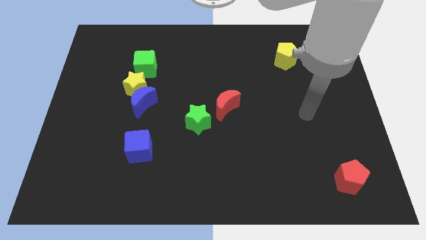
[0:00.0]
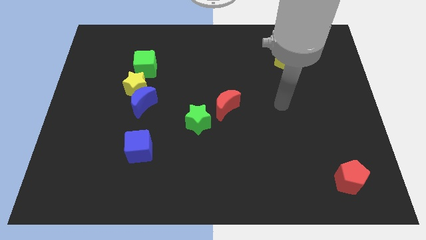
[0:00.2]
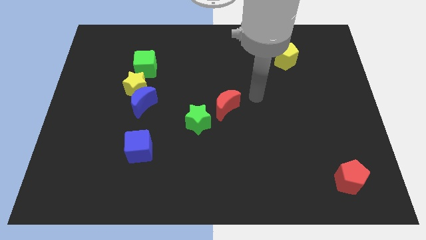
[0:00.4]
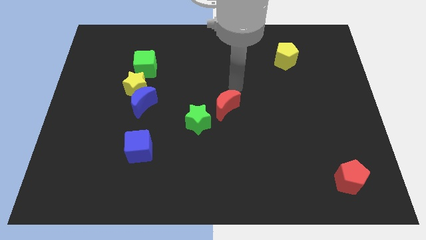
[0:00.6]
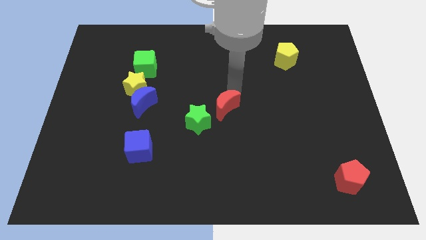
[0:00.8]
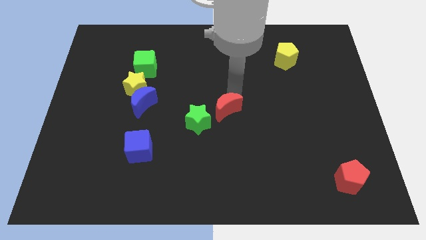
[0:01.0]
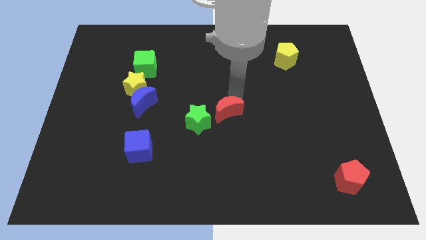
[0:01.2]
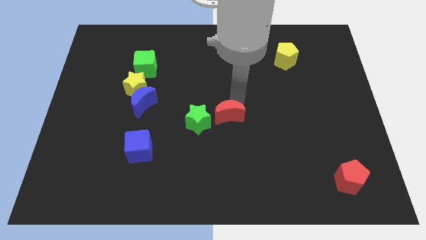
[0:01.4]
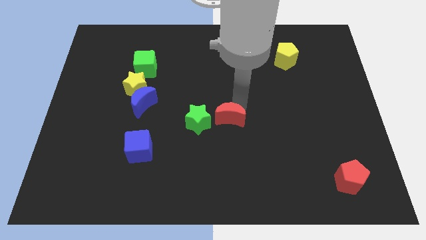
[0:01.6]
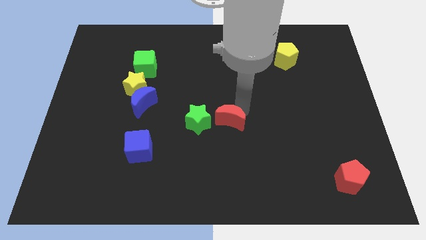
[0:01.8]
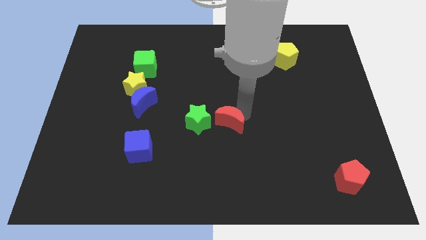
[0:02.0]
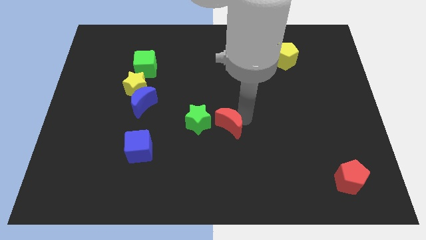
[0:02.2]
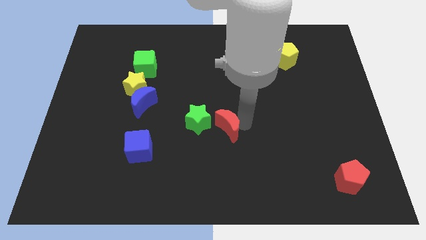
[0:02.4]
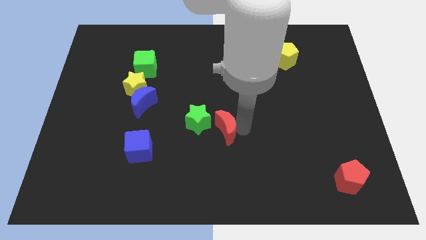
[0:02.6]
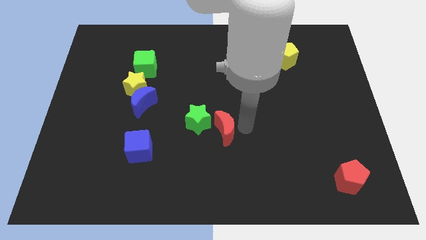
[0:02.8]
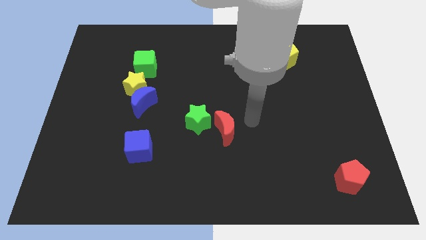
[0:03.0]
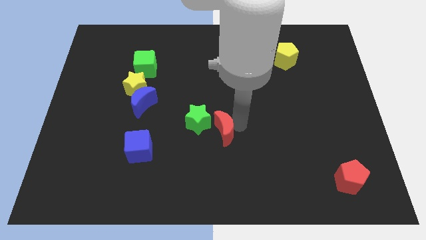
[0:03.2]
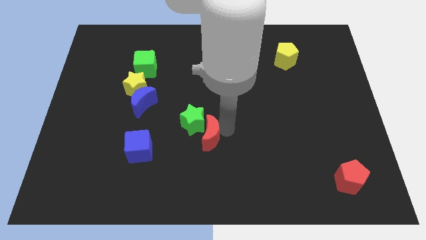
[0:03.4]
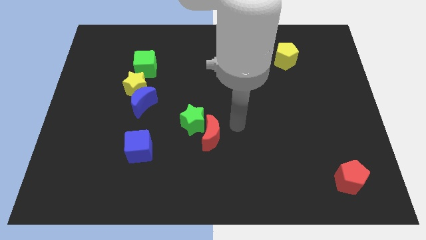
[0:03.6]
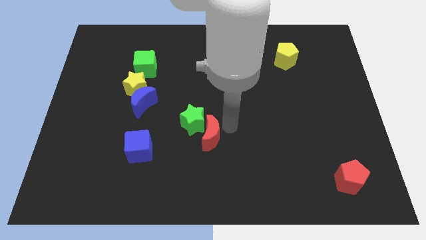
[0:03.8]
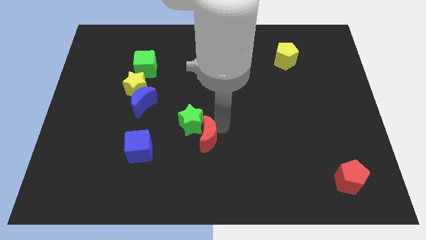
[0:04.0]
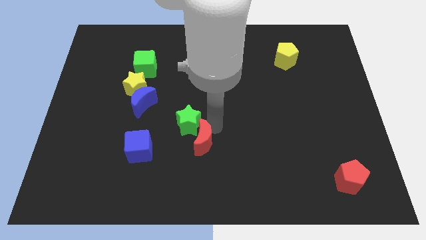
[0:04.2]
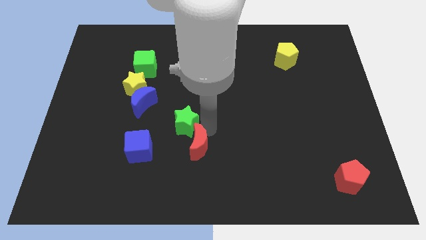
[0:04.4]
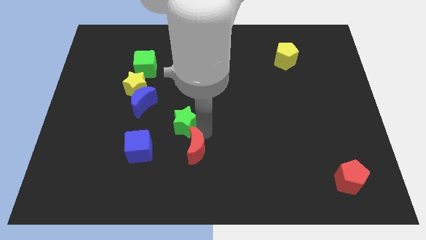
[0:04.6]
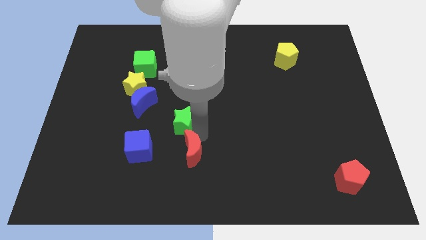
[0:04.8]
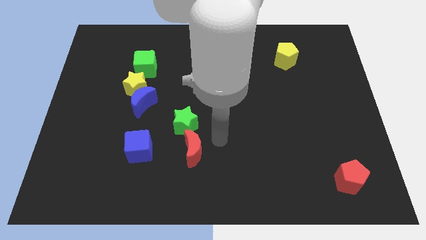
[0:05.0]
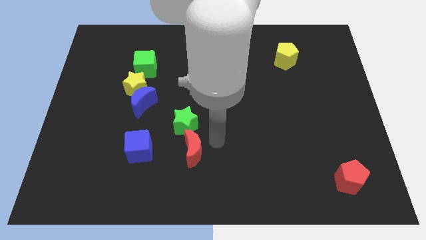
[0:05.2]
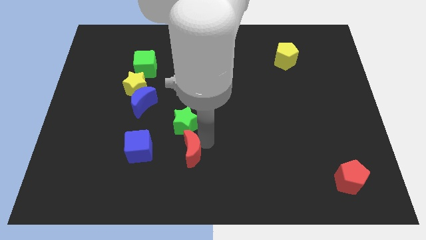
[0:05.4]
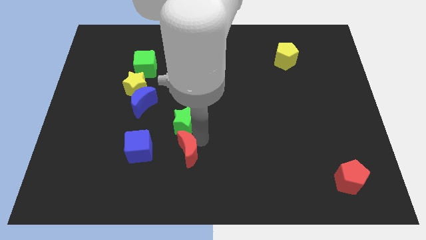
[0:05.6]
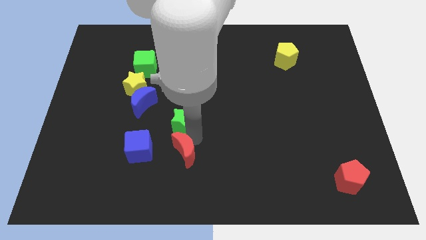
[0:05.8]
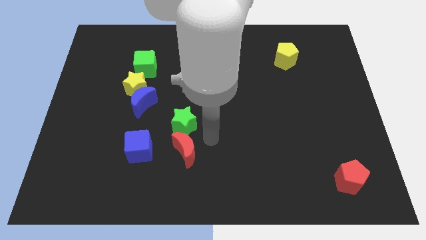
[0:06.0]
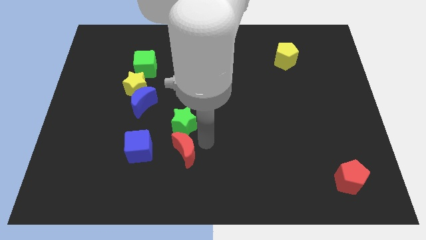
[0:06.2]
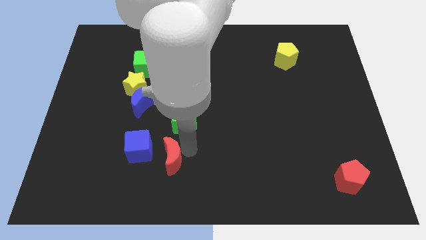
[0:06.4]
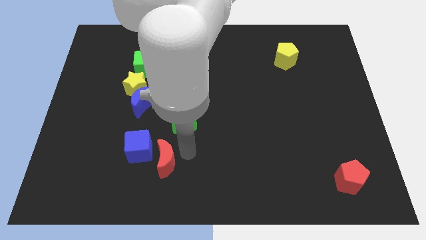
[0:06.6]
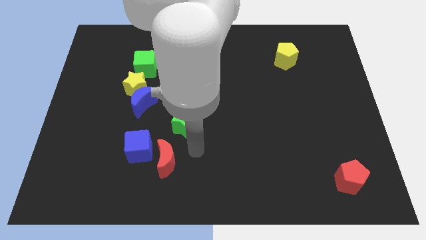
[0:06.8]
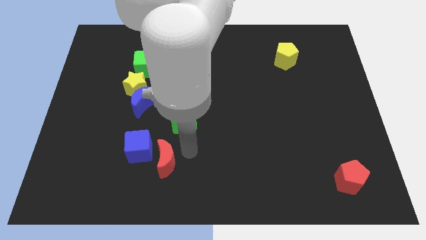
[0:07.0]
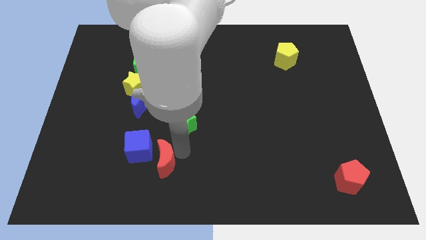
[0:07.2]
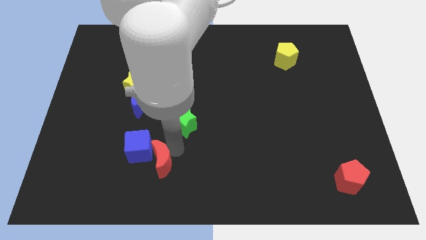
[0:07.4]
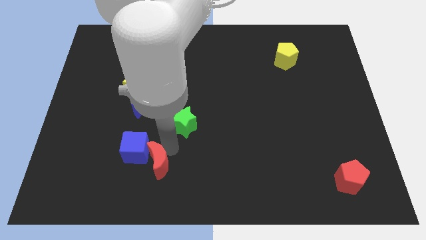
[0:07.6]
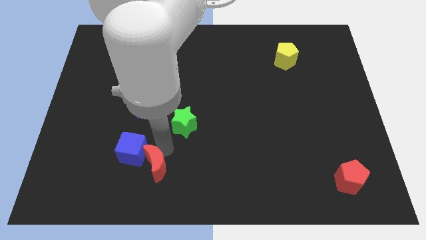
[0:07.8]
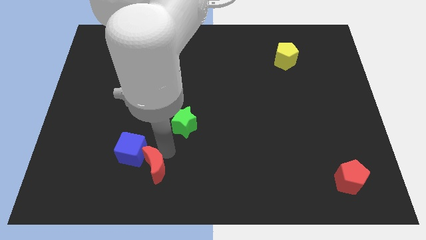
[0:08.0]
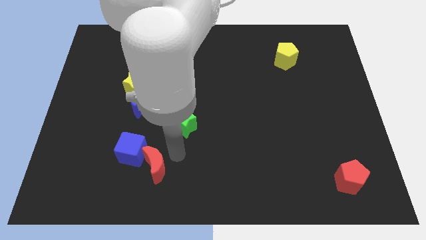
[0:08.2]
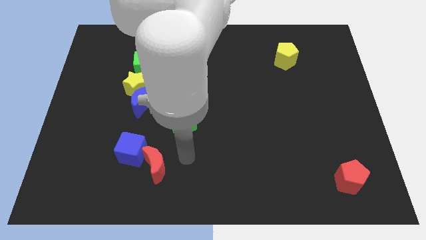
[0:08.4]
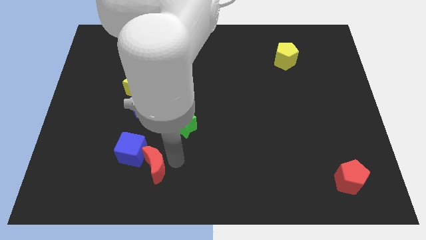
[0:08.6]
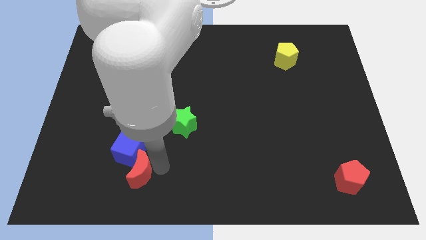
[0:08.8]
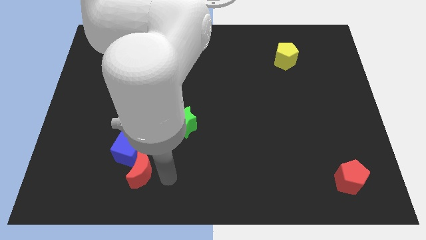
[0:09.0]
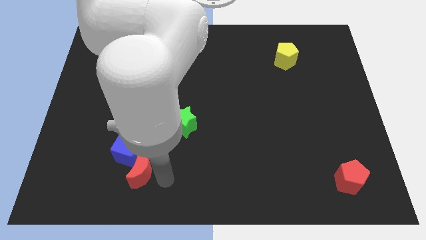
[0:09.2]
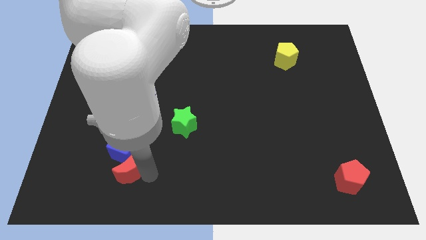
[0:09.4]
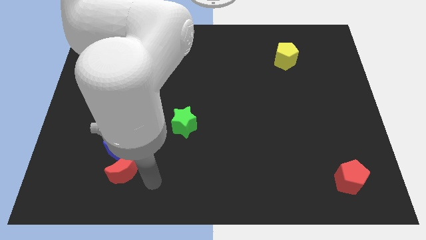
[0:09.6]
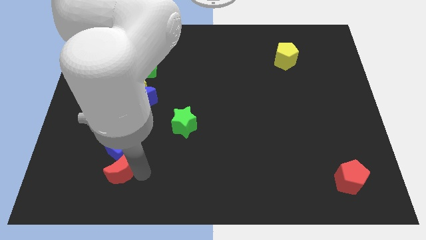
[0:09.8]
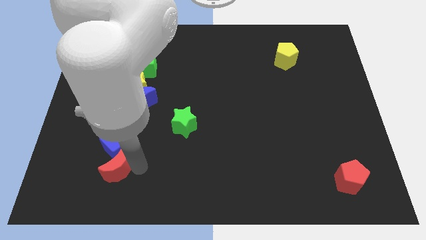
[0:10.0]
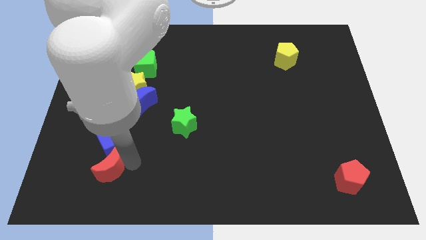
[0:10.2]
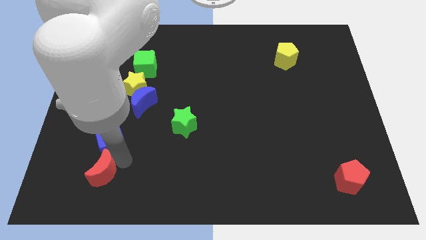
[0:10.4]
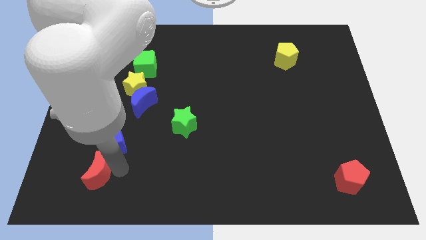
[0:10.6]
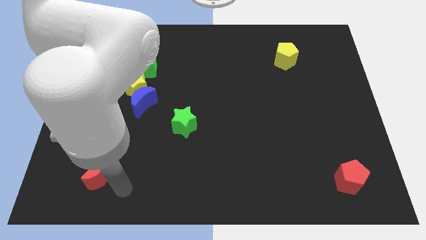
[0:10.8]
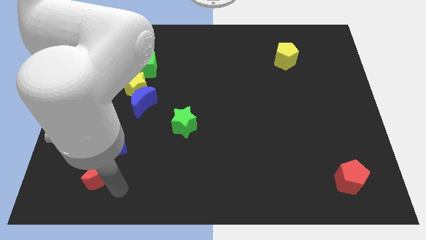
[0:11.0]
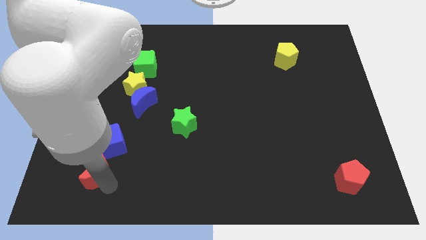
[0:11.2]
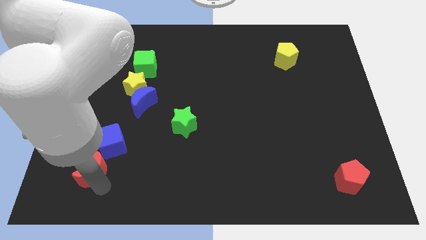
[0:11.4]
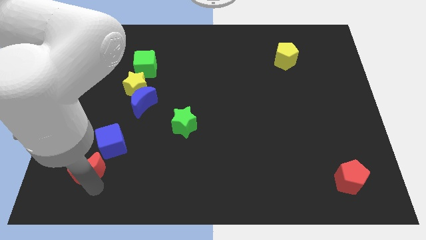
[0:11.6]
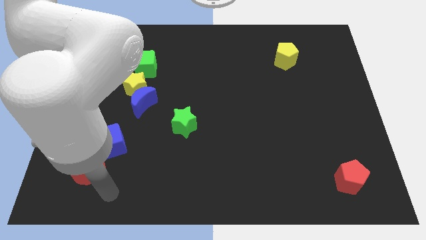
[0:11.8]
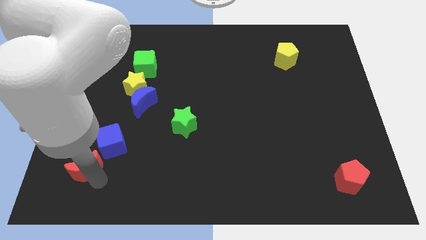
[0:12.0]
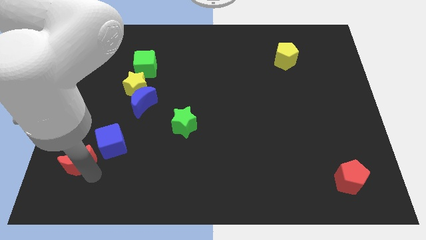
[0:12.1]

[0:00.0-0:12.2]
put the red moon left of the blue cube

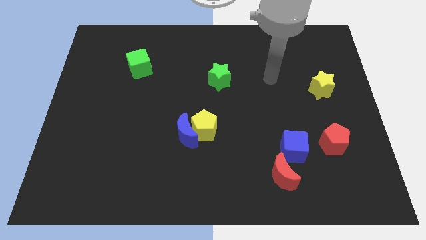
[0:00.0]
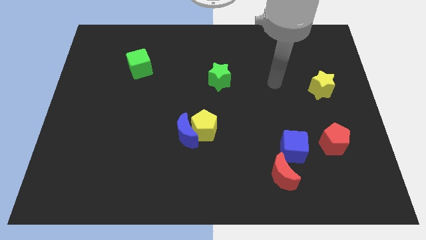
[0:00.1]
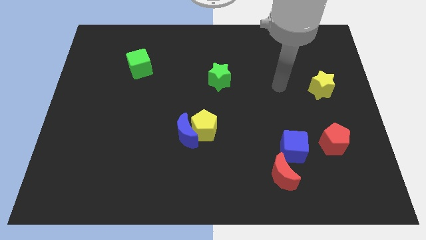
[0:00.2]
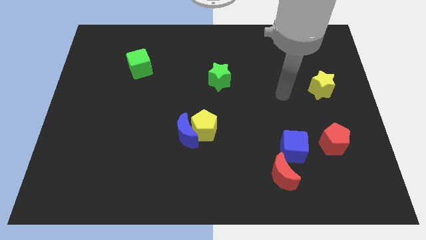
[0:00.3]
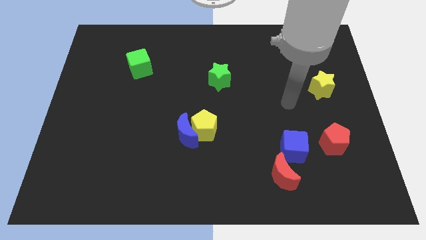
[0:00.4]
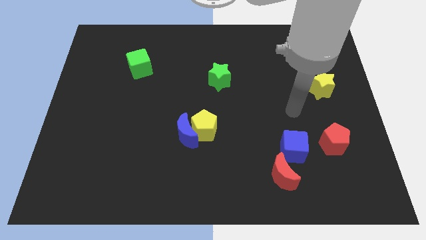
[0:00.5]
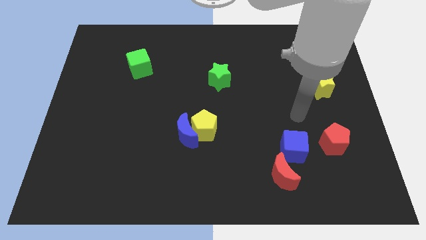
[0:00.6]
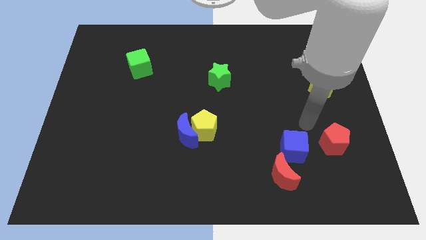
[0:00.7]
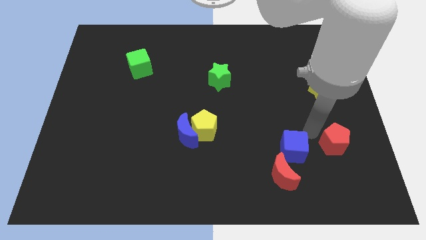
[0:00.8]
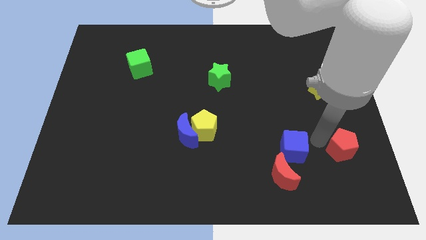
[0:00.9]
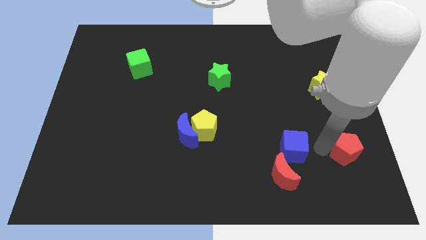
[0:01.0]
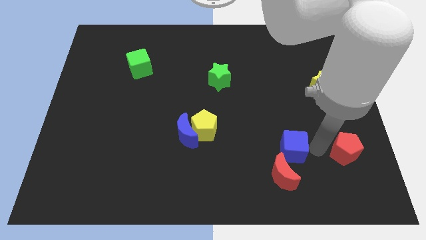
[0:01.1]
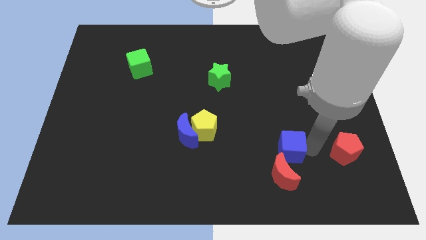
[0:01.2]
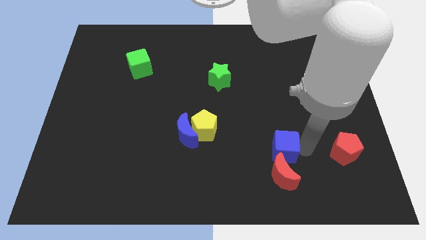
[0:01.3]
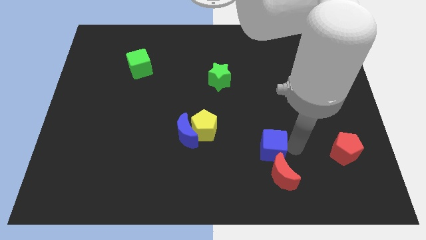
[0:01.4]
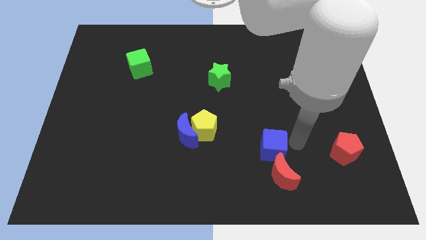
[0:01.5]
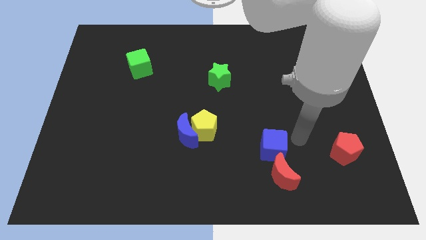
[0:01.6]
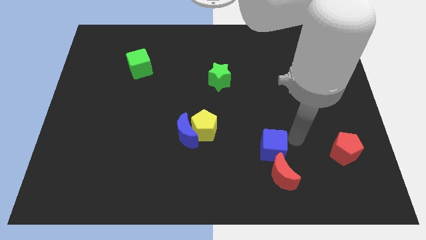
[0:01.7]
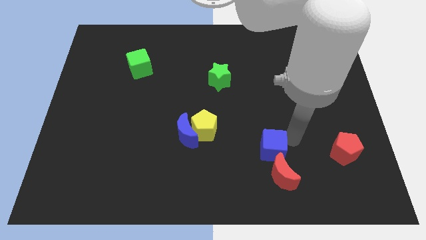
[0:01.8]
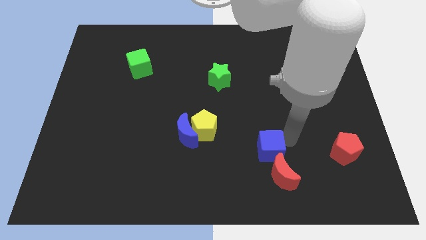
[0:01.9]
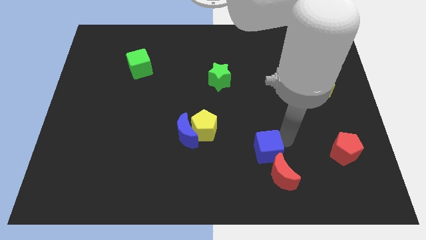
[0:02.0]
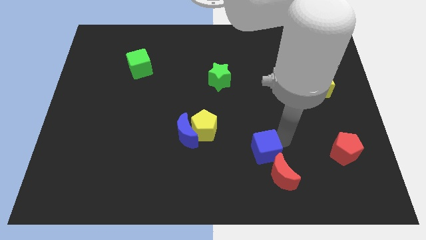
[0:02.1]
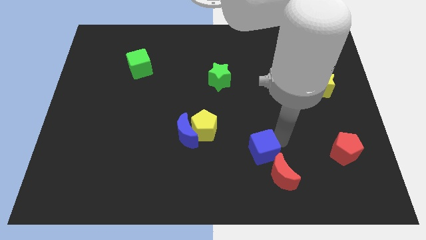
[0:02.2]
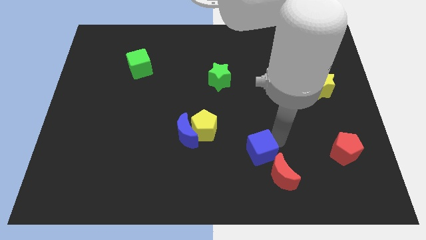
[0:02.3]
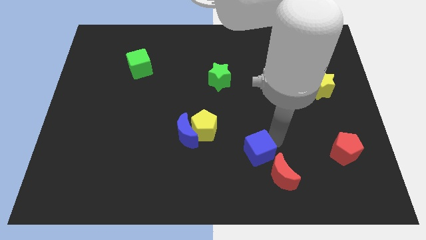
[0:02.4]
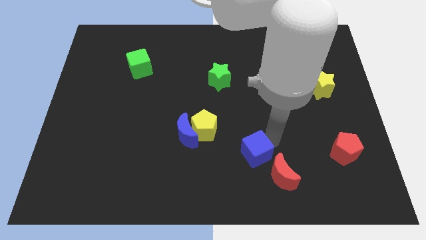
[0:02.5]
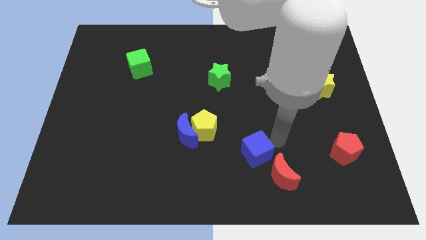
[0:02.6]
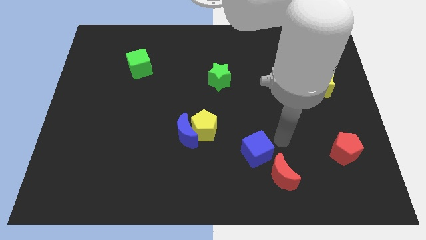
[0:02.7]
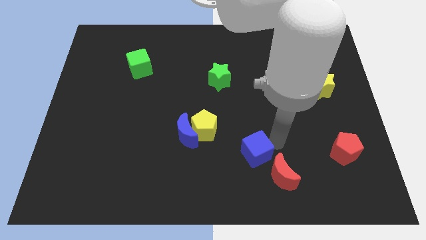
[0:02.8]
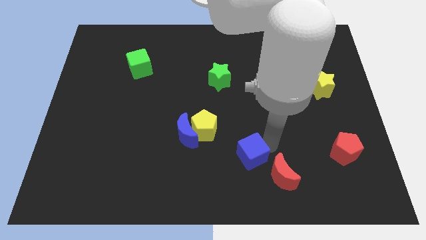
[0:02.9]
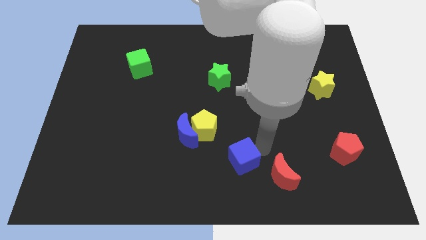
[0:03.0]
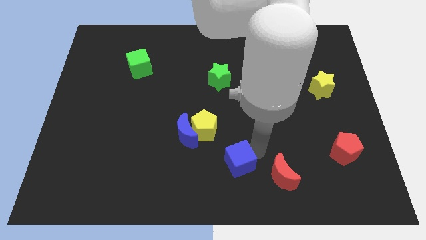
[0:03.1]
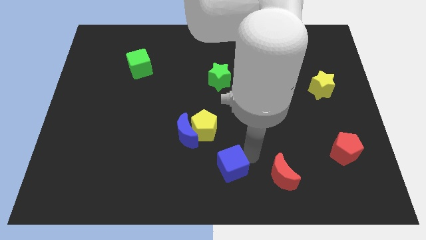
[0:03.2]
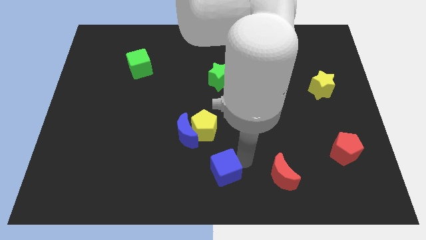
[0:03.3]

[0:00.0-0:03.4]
move the blue cube below the yellow pentagon
